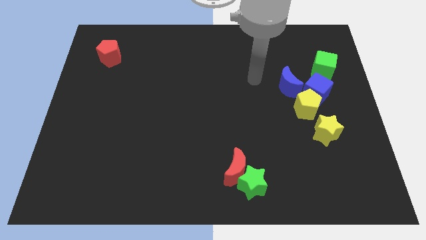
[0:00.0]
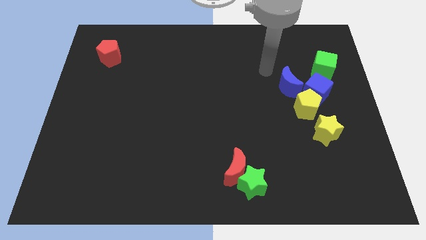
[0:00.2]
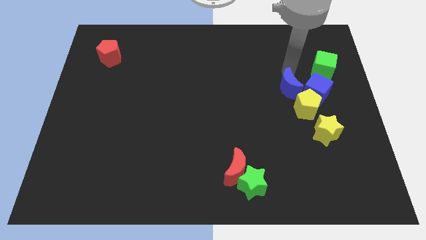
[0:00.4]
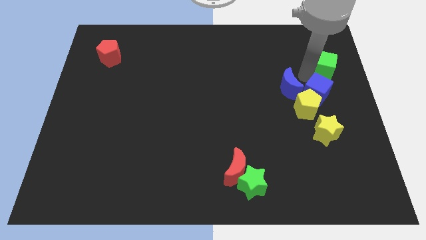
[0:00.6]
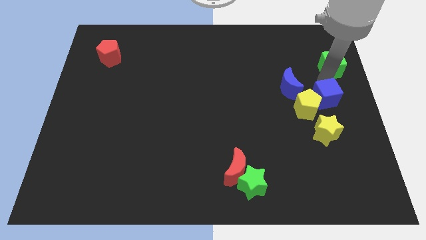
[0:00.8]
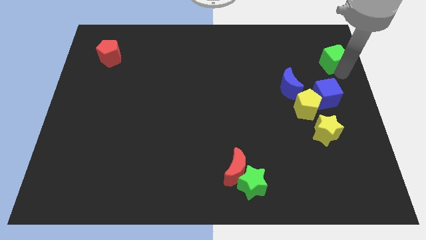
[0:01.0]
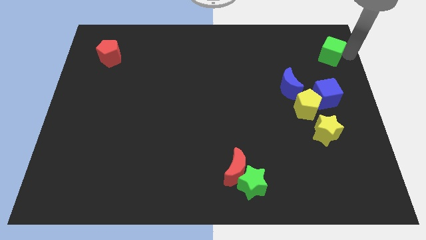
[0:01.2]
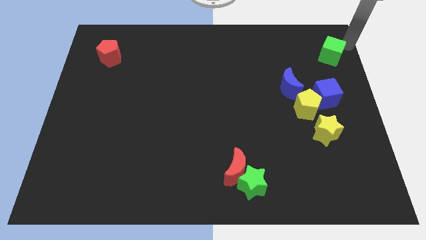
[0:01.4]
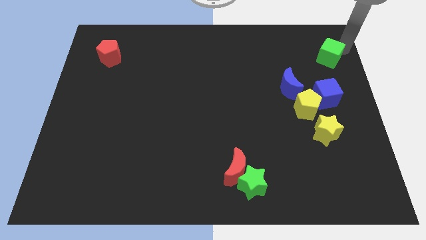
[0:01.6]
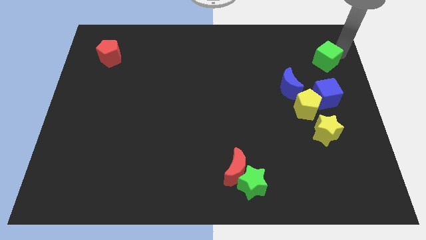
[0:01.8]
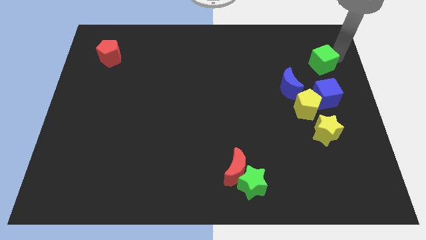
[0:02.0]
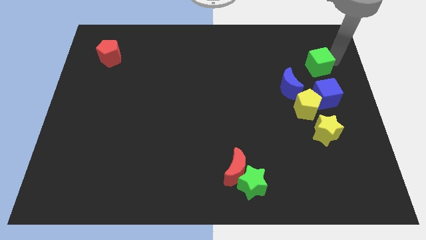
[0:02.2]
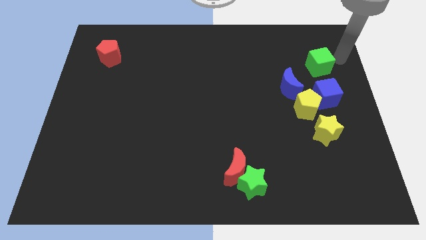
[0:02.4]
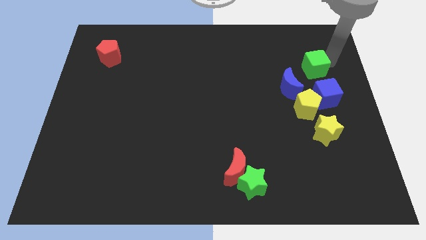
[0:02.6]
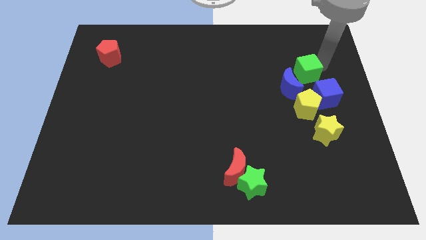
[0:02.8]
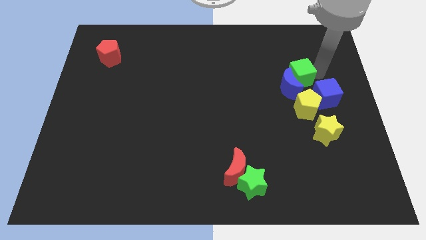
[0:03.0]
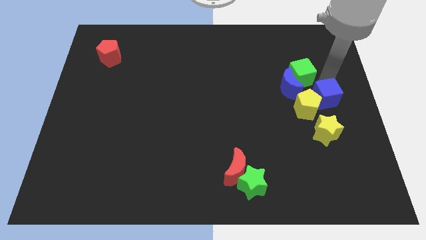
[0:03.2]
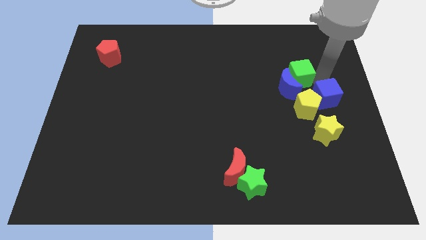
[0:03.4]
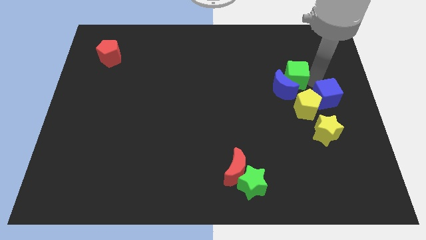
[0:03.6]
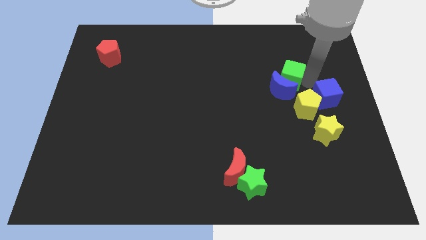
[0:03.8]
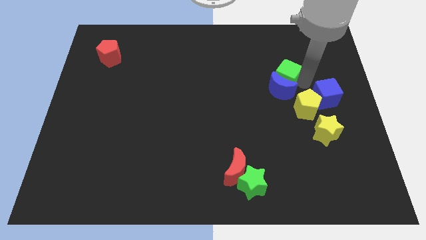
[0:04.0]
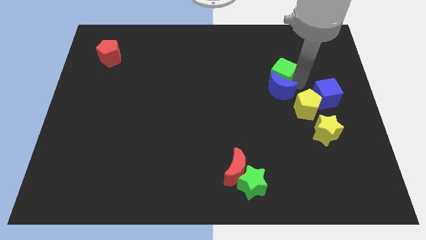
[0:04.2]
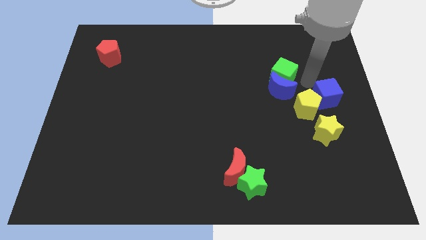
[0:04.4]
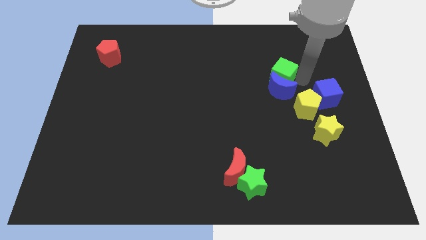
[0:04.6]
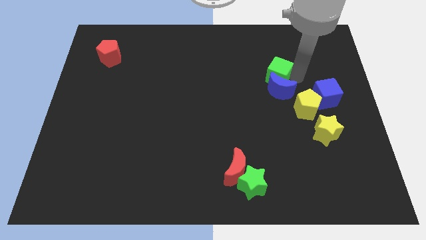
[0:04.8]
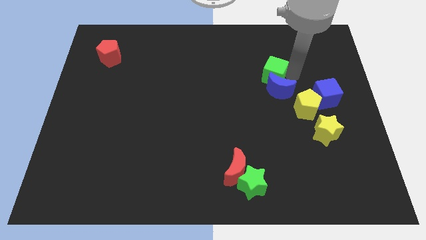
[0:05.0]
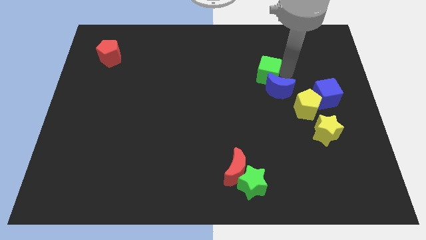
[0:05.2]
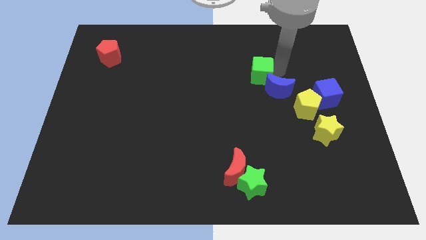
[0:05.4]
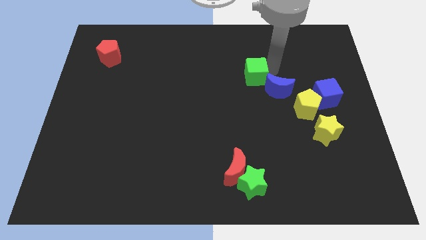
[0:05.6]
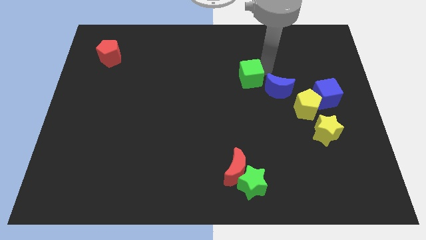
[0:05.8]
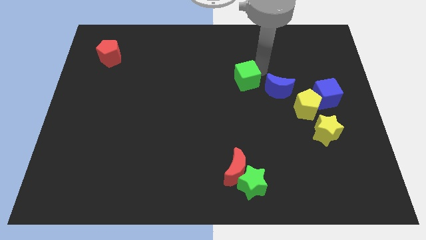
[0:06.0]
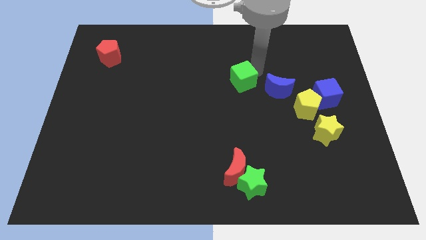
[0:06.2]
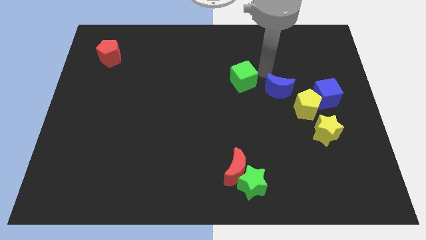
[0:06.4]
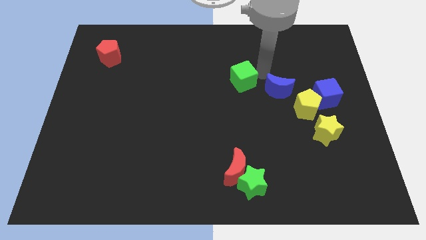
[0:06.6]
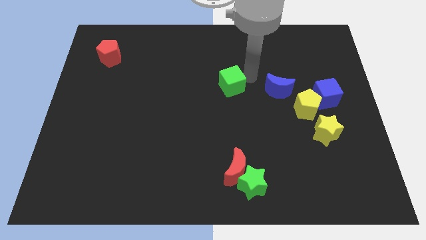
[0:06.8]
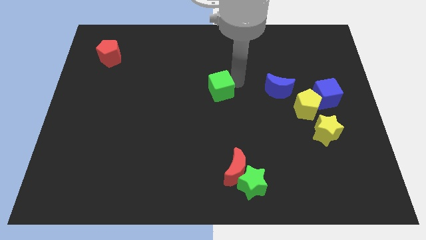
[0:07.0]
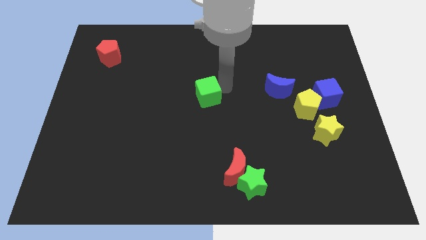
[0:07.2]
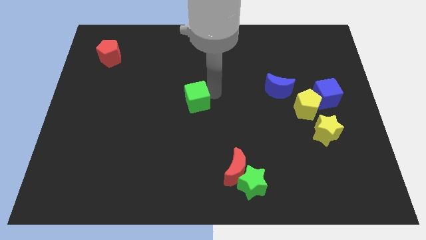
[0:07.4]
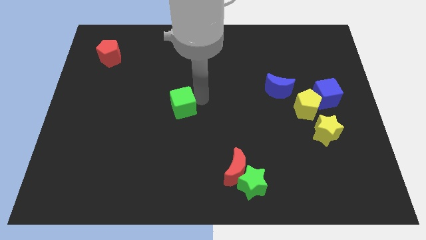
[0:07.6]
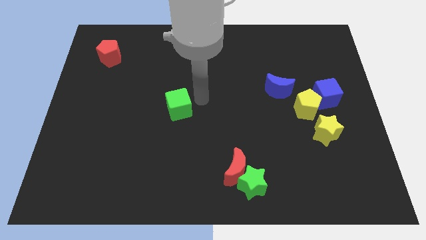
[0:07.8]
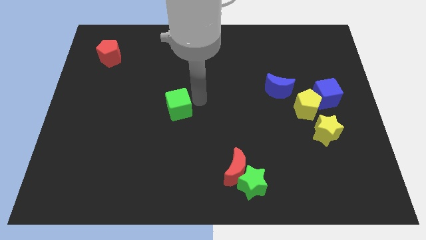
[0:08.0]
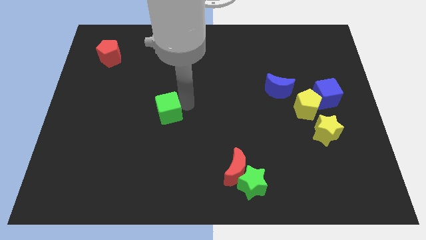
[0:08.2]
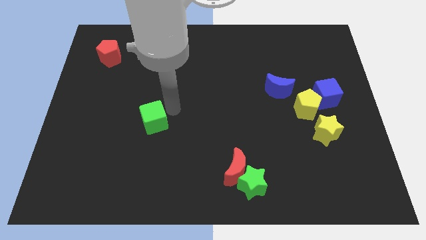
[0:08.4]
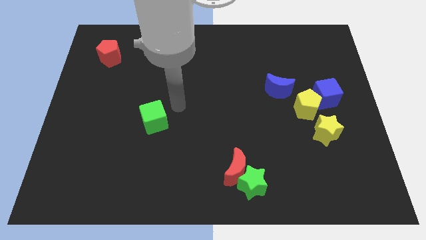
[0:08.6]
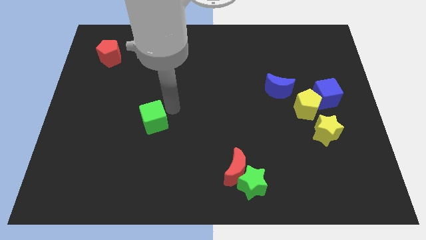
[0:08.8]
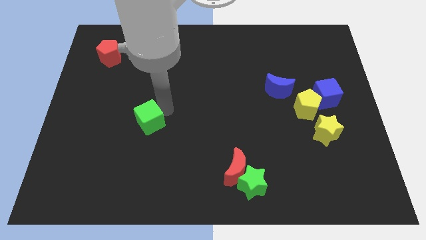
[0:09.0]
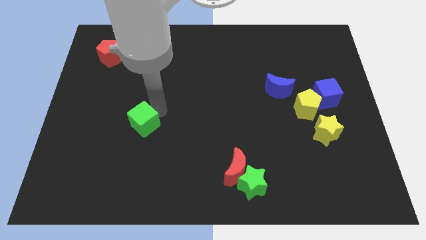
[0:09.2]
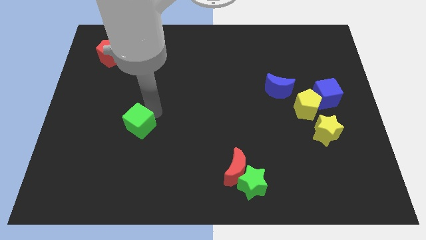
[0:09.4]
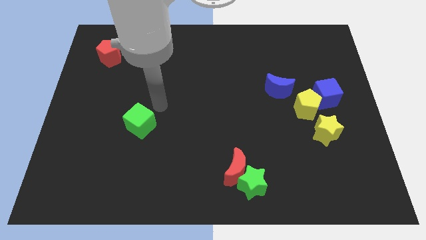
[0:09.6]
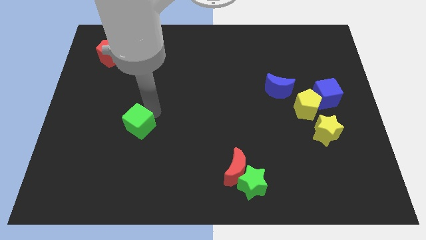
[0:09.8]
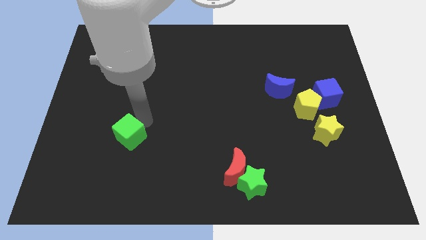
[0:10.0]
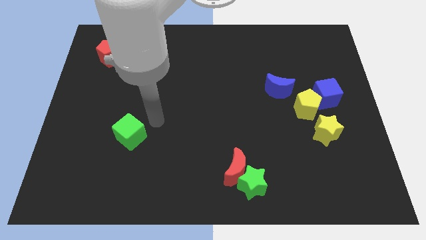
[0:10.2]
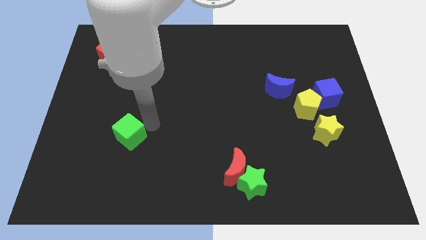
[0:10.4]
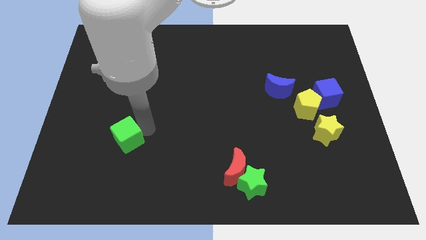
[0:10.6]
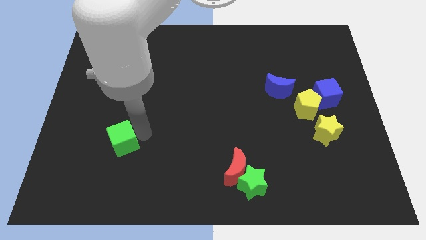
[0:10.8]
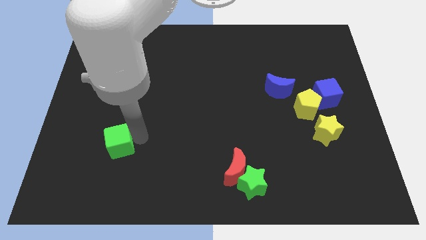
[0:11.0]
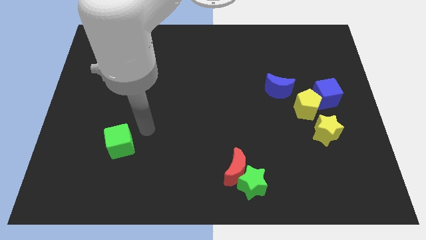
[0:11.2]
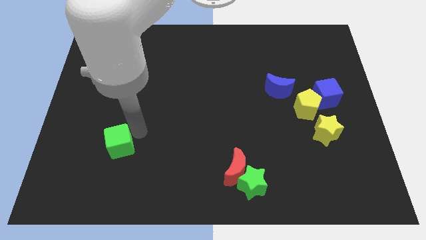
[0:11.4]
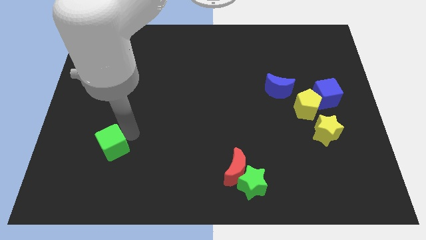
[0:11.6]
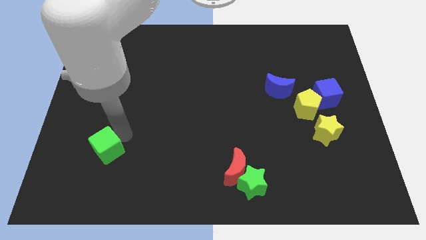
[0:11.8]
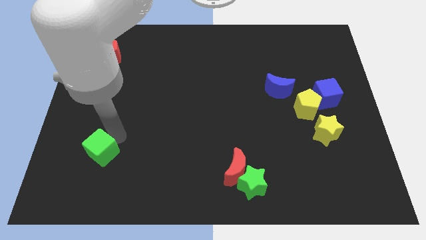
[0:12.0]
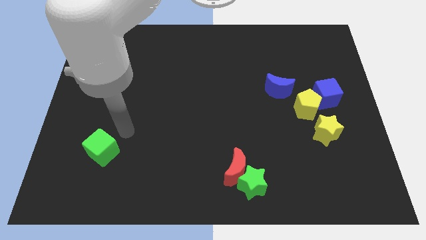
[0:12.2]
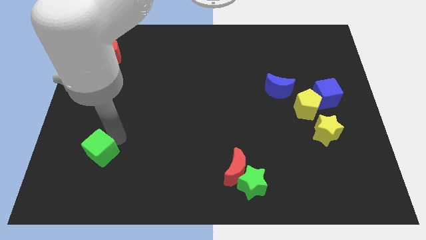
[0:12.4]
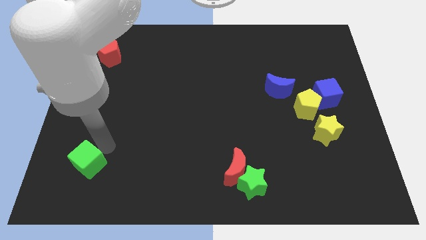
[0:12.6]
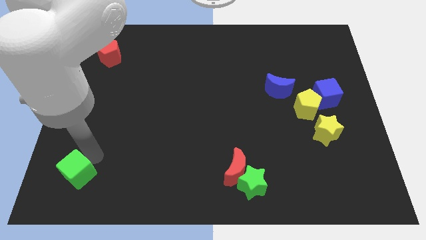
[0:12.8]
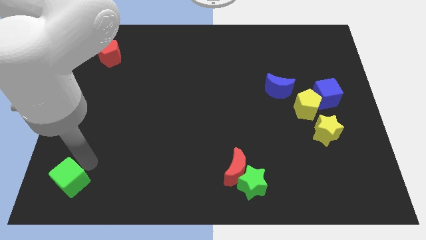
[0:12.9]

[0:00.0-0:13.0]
move the green cube to the bottom left of the board
